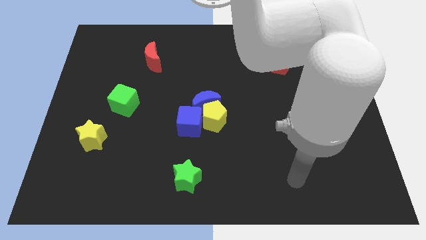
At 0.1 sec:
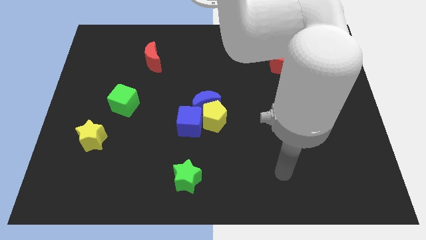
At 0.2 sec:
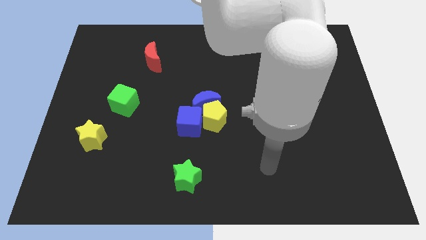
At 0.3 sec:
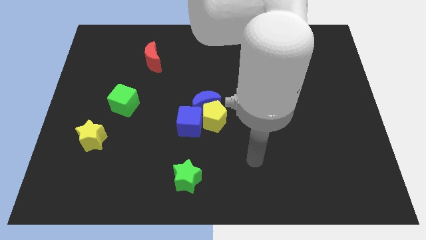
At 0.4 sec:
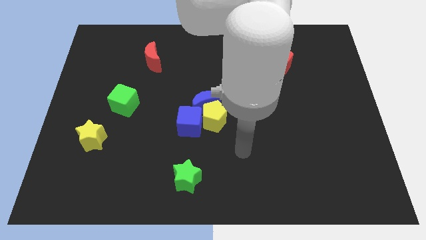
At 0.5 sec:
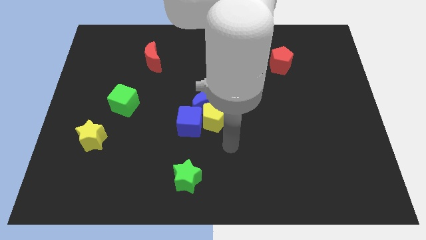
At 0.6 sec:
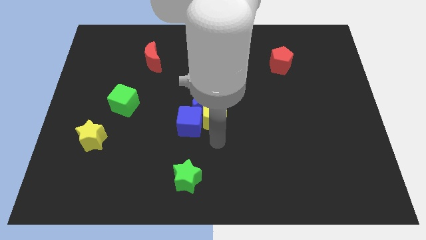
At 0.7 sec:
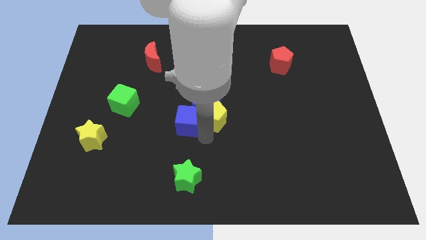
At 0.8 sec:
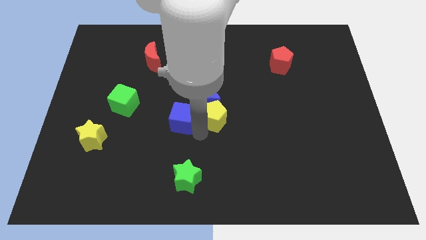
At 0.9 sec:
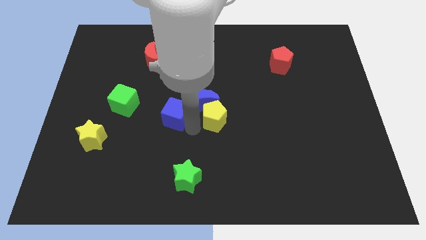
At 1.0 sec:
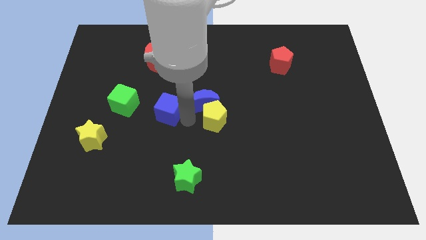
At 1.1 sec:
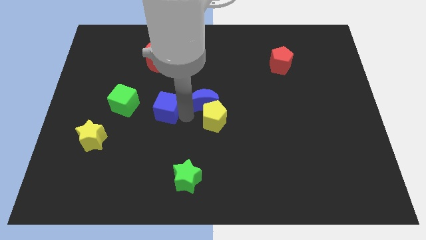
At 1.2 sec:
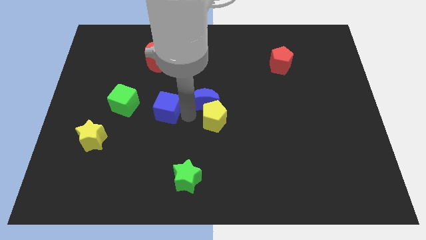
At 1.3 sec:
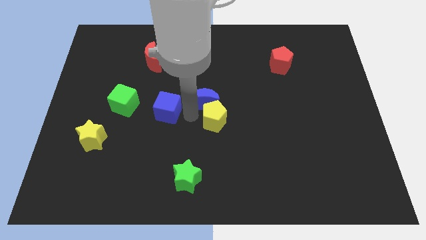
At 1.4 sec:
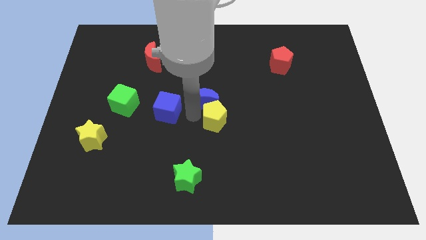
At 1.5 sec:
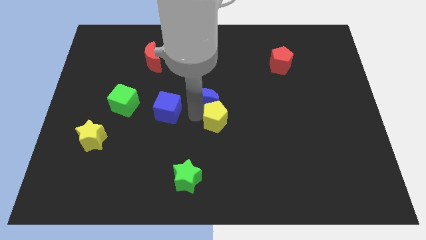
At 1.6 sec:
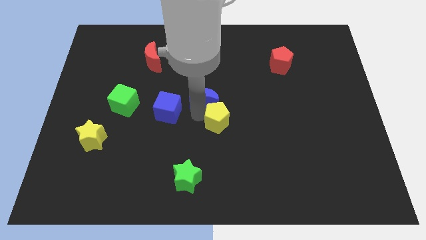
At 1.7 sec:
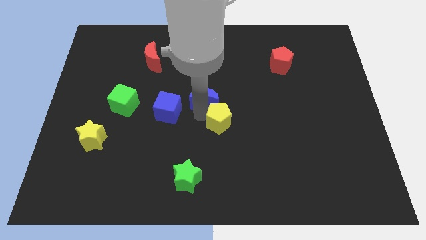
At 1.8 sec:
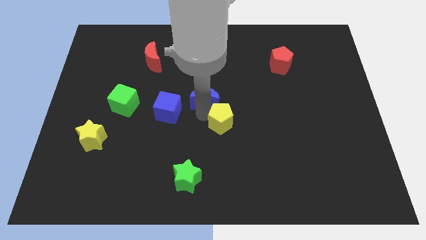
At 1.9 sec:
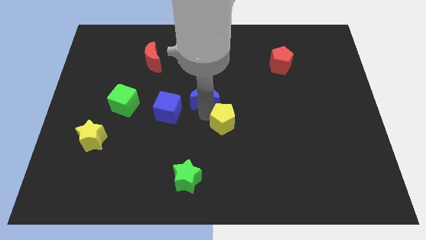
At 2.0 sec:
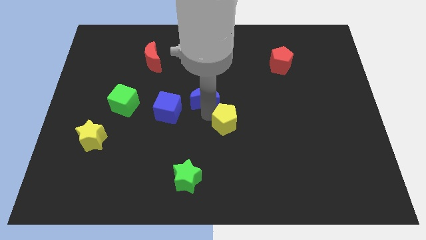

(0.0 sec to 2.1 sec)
separate the yellow pentagon from the blue moon and blue cube

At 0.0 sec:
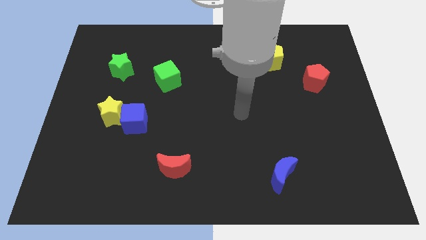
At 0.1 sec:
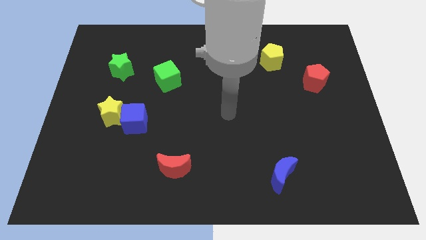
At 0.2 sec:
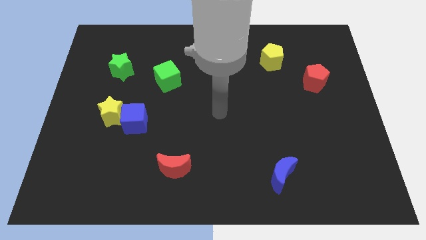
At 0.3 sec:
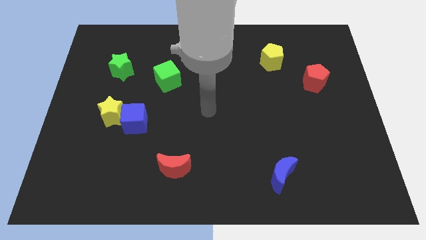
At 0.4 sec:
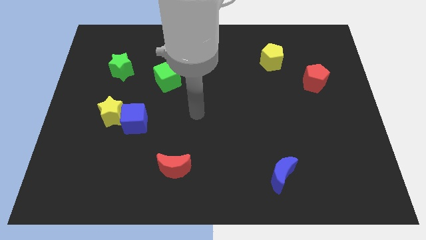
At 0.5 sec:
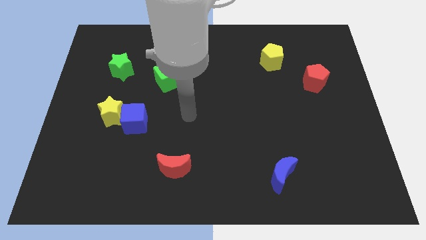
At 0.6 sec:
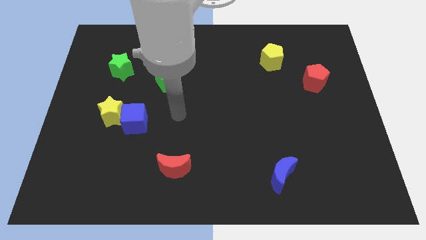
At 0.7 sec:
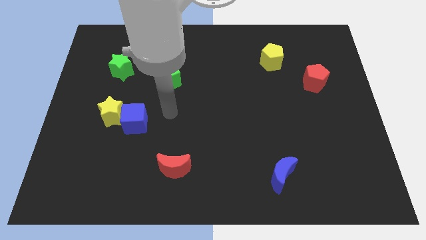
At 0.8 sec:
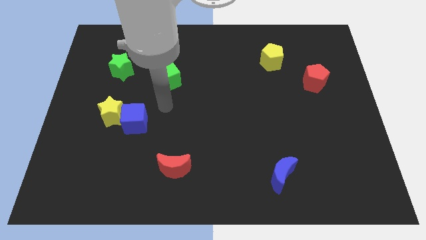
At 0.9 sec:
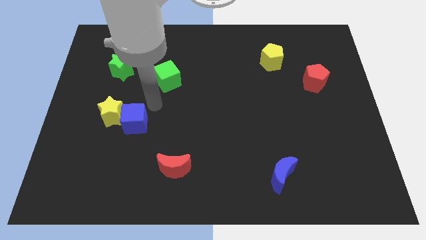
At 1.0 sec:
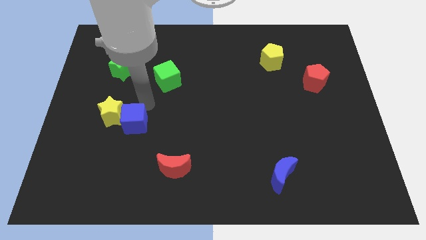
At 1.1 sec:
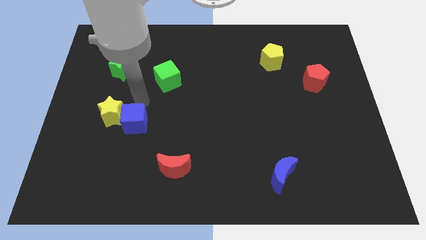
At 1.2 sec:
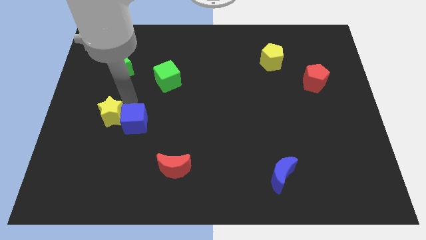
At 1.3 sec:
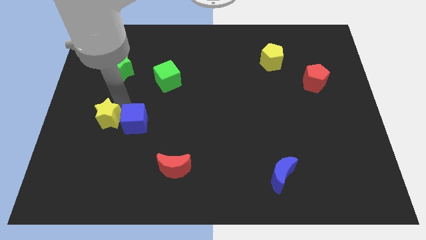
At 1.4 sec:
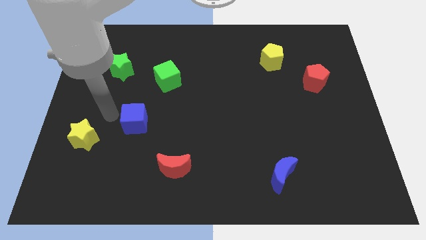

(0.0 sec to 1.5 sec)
separate the blue cube from the yellow star

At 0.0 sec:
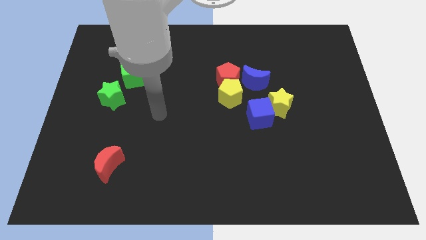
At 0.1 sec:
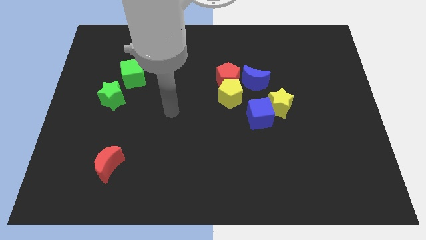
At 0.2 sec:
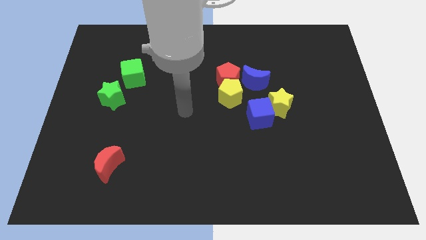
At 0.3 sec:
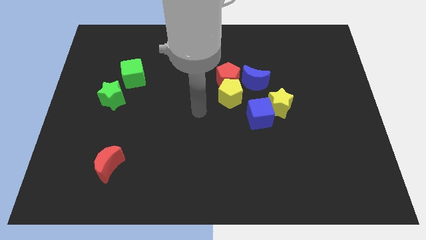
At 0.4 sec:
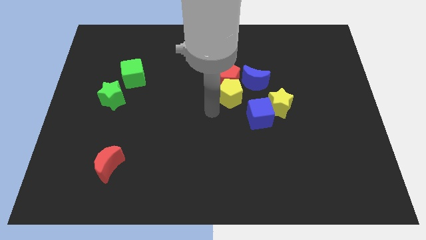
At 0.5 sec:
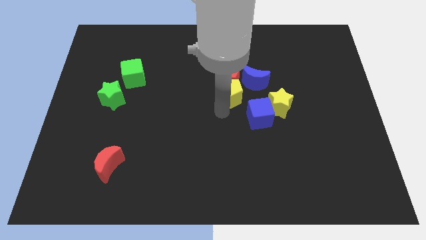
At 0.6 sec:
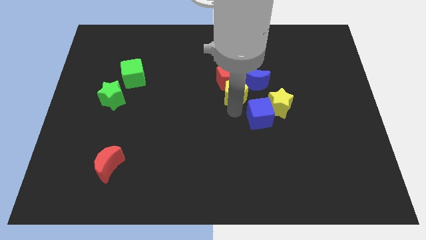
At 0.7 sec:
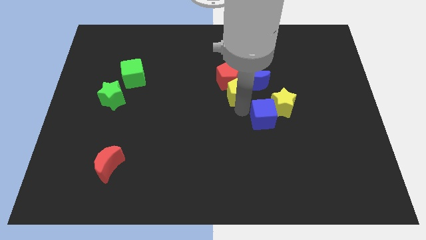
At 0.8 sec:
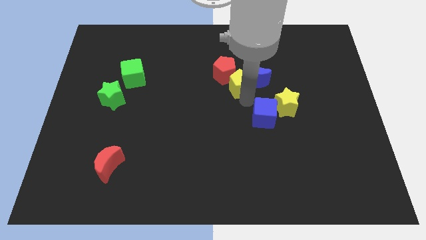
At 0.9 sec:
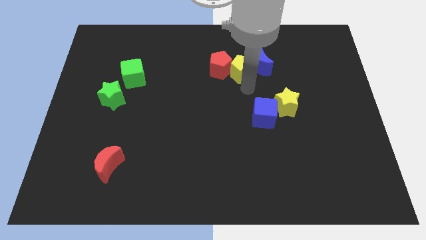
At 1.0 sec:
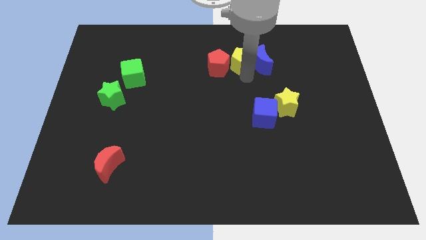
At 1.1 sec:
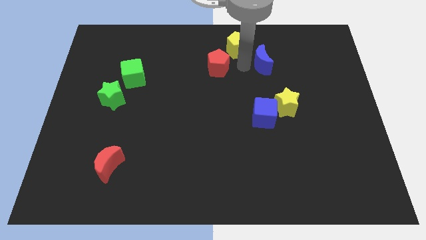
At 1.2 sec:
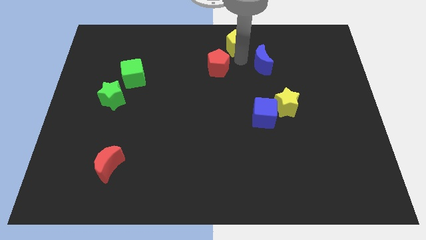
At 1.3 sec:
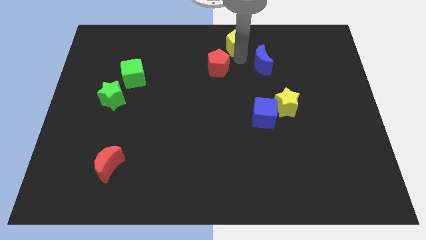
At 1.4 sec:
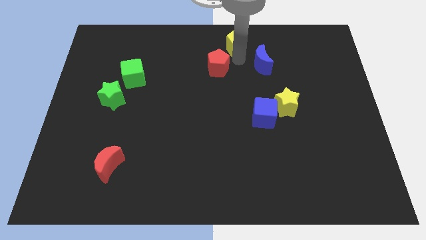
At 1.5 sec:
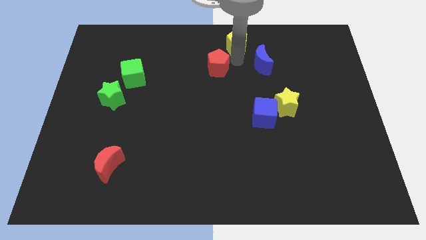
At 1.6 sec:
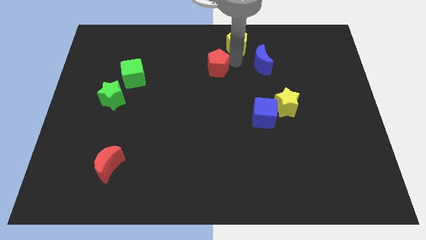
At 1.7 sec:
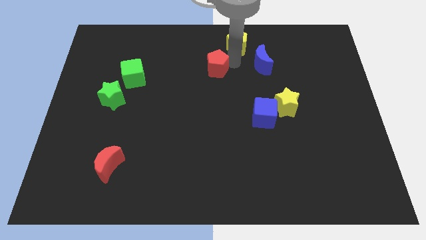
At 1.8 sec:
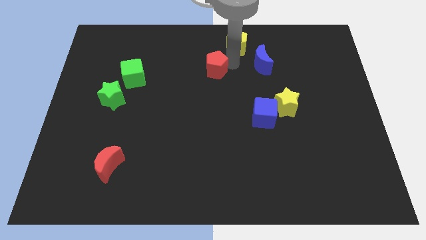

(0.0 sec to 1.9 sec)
separate the red pentagon from the yellow pentagon and blue moon

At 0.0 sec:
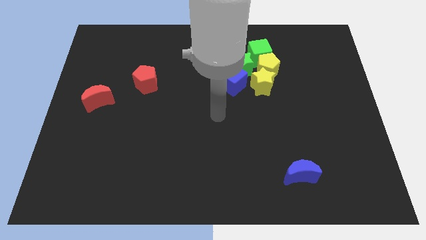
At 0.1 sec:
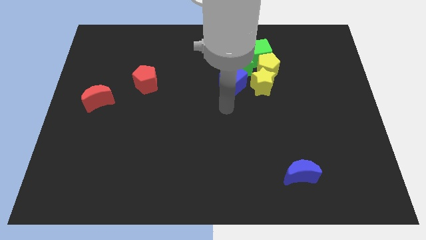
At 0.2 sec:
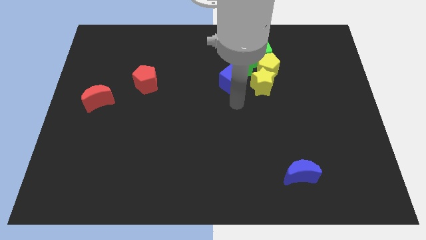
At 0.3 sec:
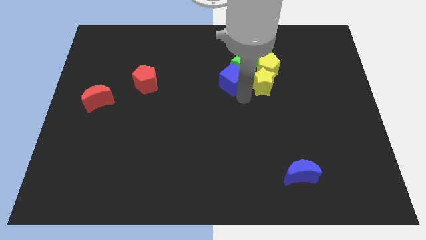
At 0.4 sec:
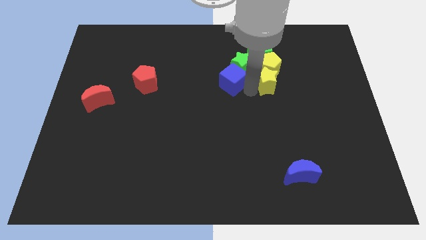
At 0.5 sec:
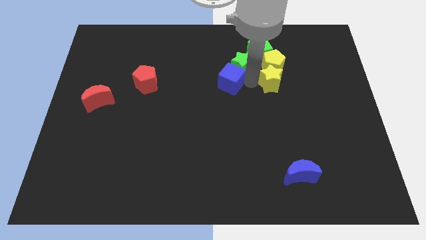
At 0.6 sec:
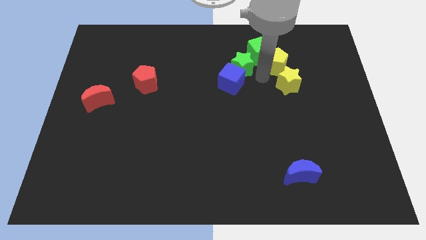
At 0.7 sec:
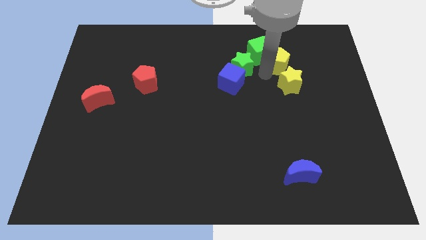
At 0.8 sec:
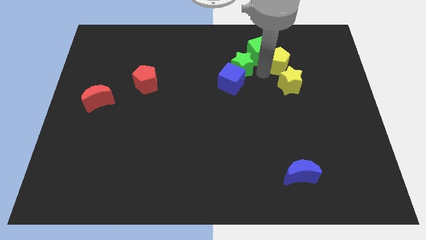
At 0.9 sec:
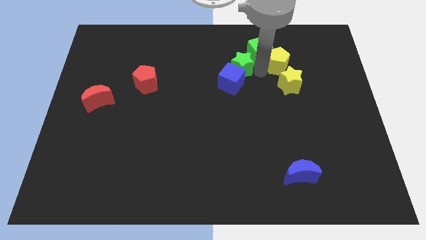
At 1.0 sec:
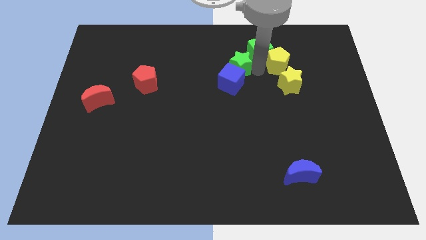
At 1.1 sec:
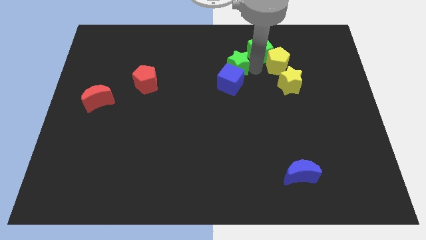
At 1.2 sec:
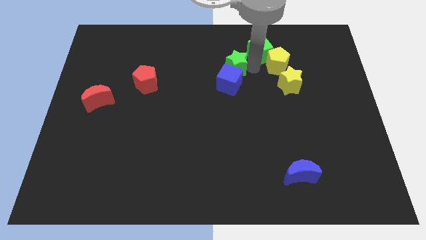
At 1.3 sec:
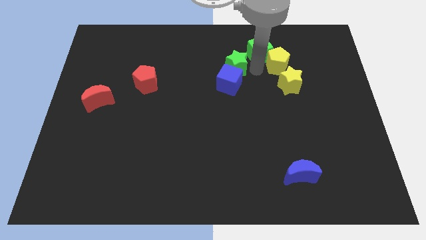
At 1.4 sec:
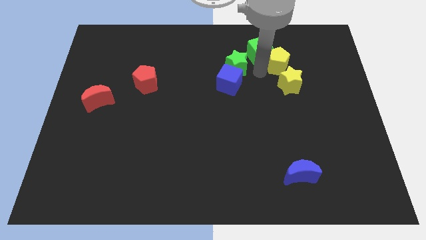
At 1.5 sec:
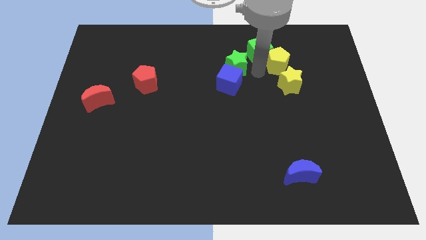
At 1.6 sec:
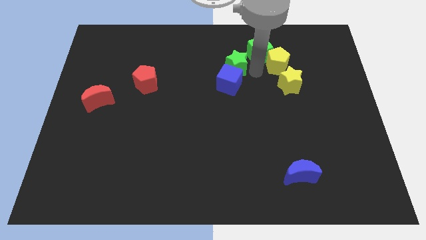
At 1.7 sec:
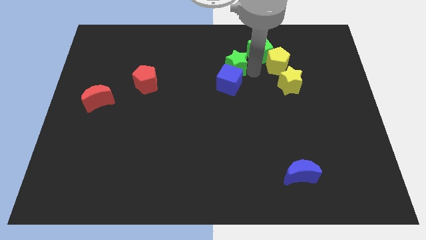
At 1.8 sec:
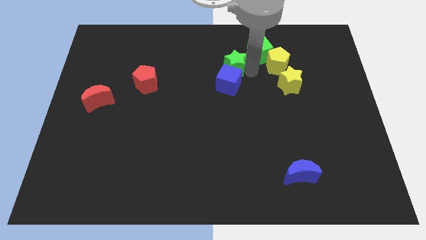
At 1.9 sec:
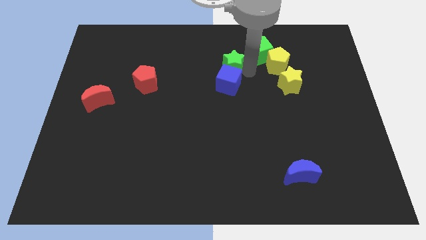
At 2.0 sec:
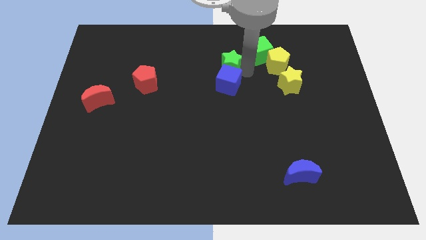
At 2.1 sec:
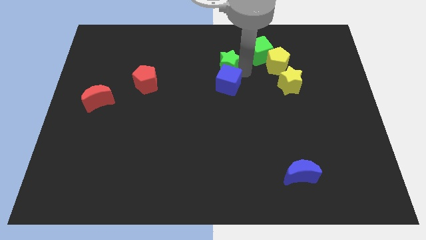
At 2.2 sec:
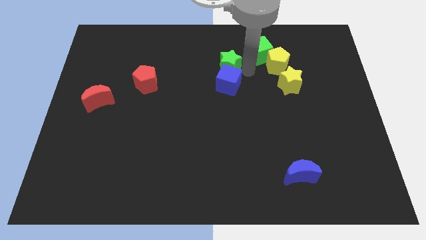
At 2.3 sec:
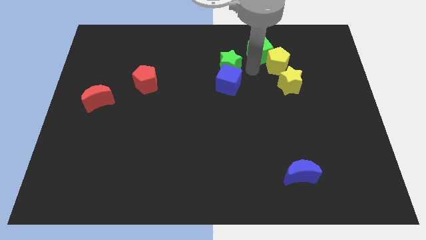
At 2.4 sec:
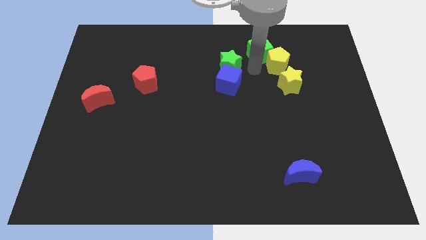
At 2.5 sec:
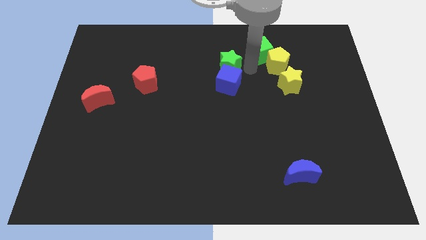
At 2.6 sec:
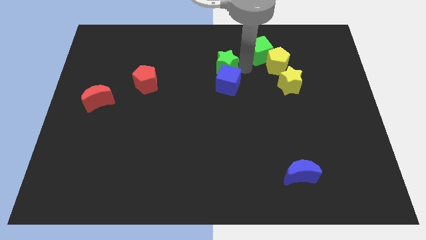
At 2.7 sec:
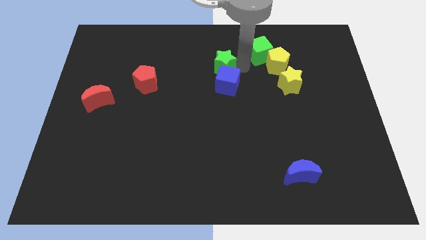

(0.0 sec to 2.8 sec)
separate the green star from the group

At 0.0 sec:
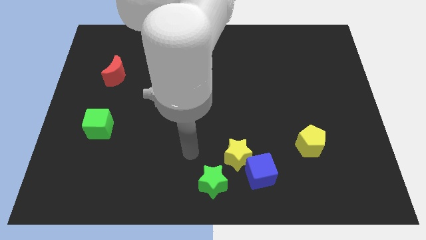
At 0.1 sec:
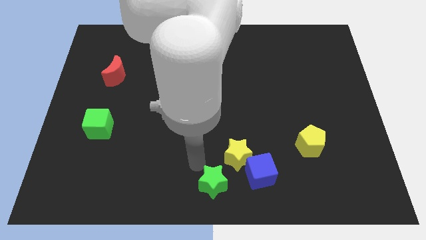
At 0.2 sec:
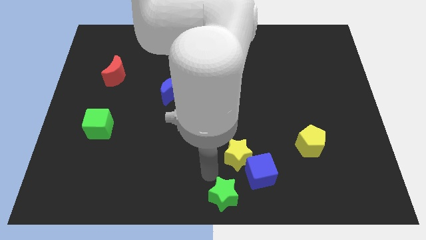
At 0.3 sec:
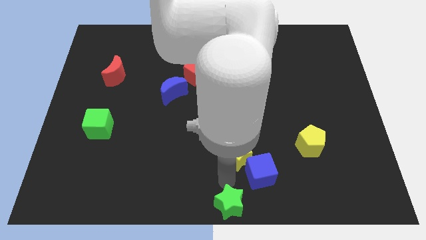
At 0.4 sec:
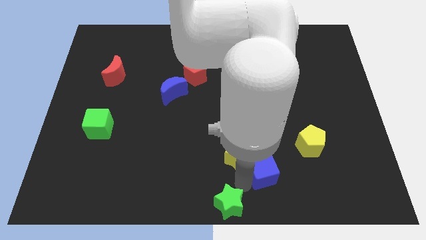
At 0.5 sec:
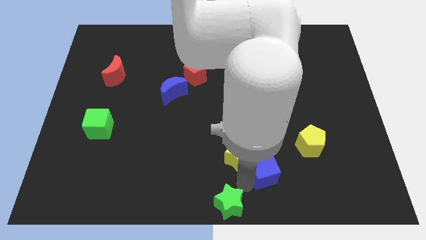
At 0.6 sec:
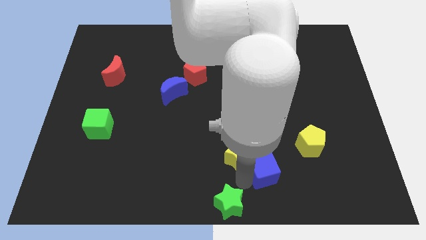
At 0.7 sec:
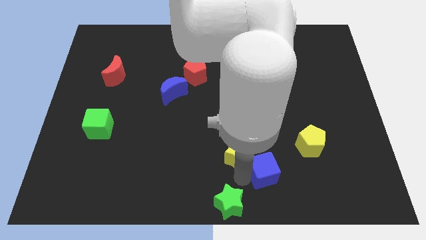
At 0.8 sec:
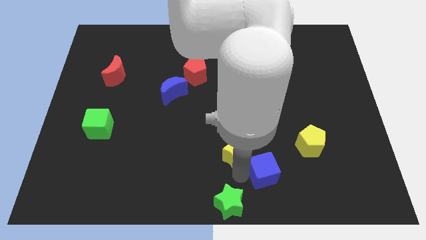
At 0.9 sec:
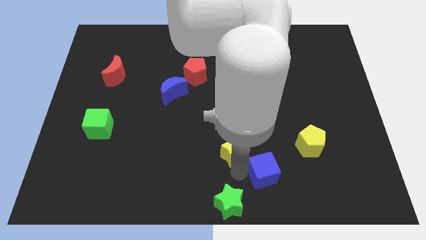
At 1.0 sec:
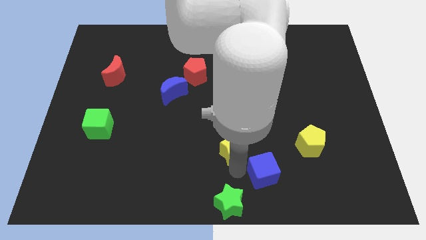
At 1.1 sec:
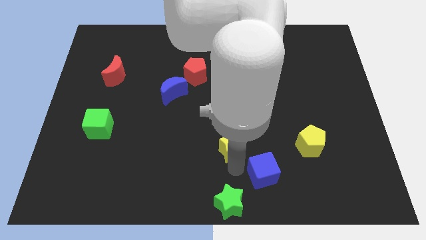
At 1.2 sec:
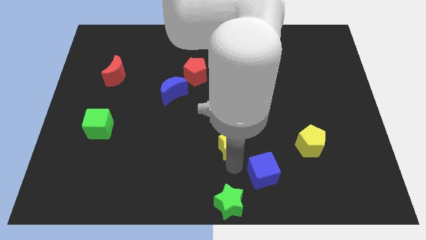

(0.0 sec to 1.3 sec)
pull the yellow star apart from the blue cube and green star
